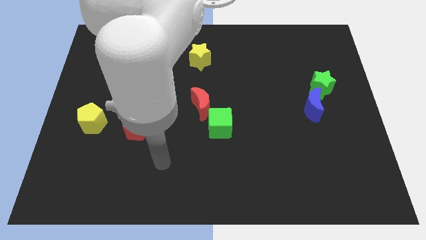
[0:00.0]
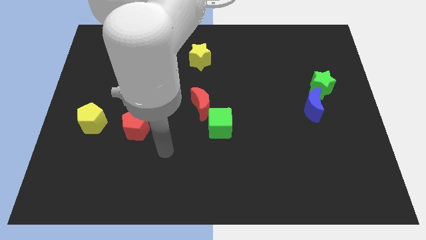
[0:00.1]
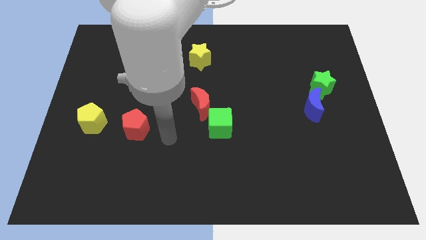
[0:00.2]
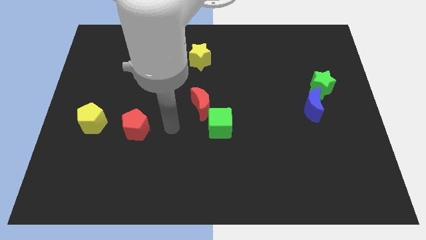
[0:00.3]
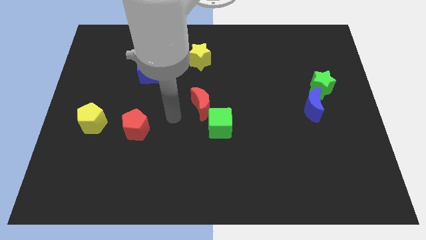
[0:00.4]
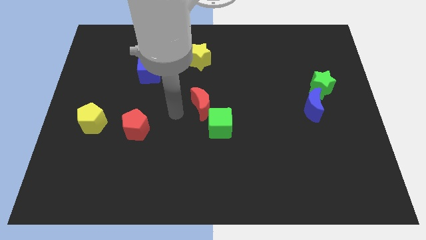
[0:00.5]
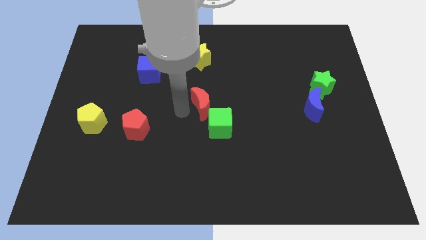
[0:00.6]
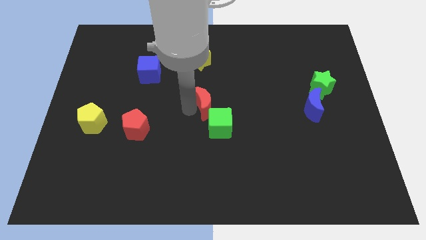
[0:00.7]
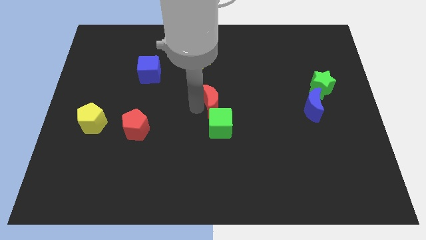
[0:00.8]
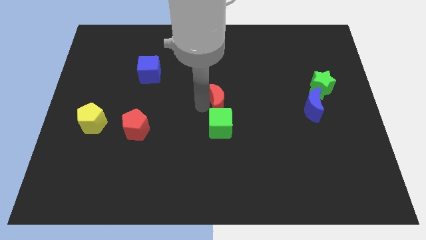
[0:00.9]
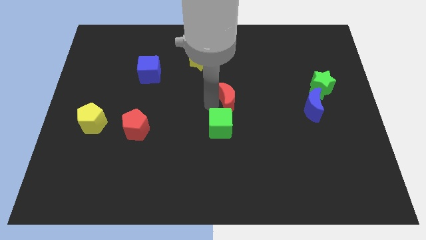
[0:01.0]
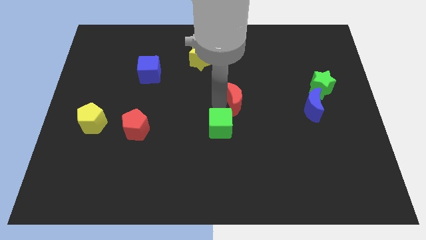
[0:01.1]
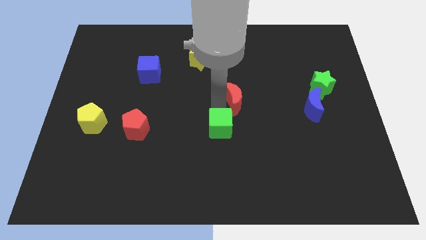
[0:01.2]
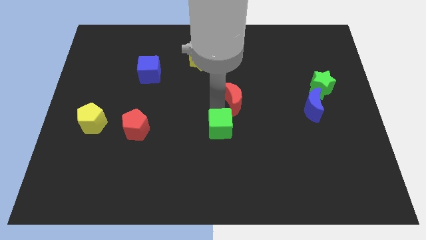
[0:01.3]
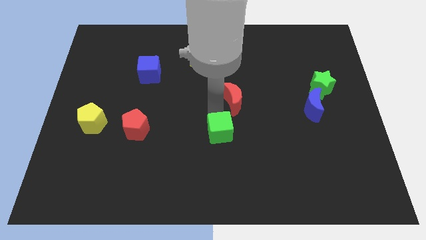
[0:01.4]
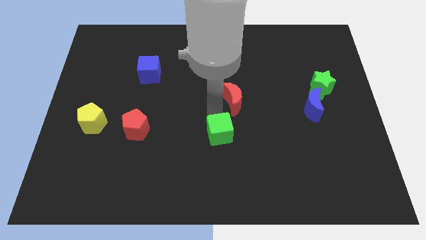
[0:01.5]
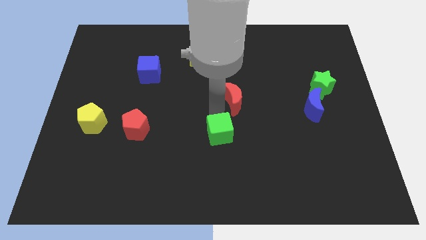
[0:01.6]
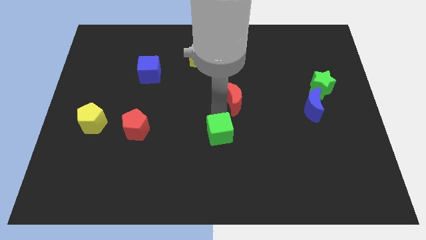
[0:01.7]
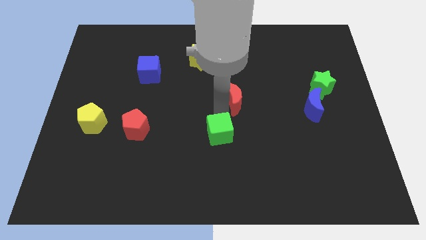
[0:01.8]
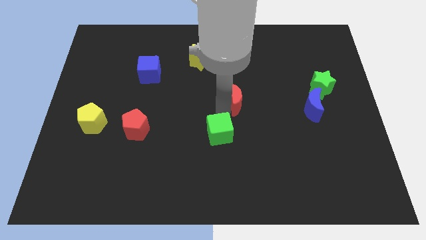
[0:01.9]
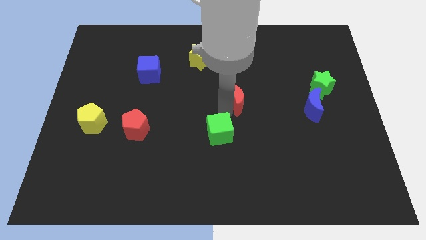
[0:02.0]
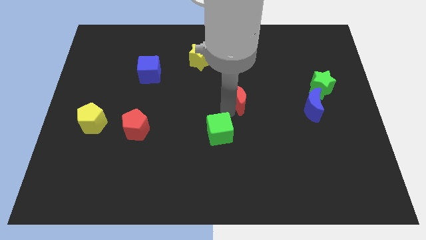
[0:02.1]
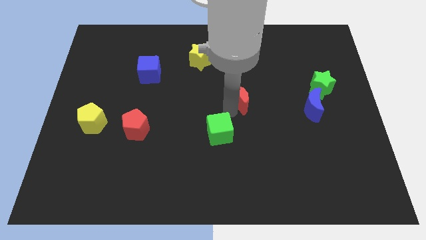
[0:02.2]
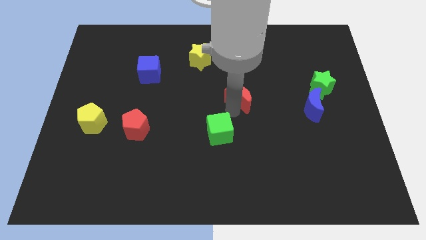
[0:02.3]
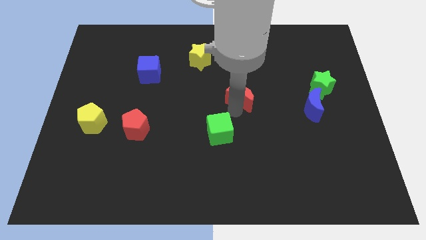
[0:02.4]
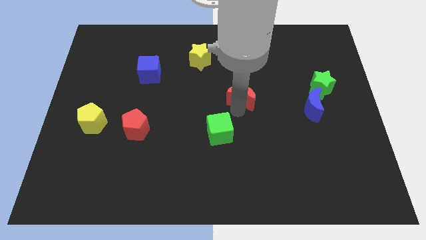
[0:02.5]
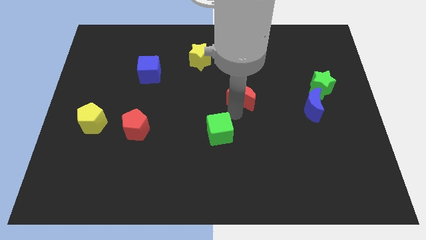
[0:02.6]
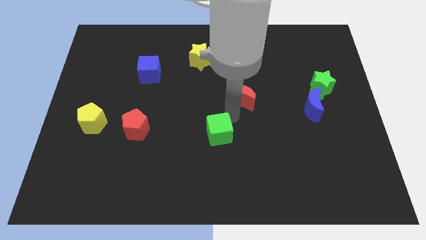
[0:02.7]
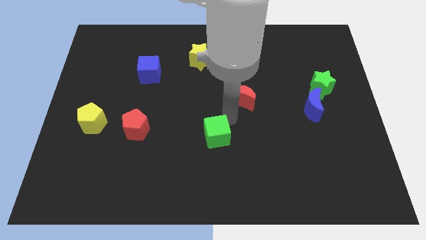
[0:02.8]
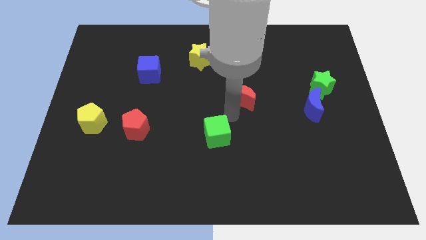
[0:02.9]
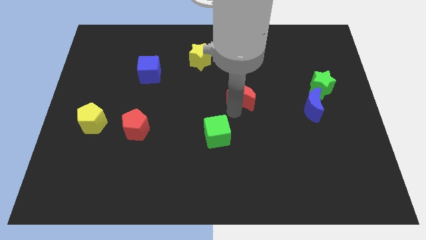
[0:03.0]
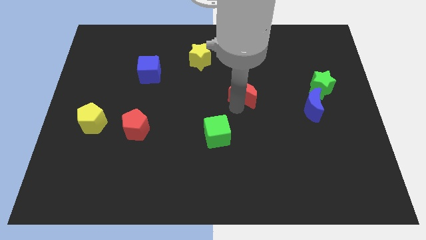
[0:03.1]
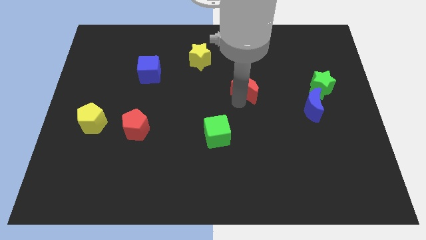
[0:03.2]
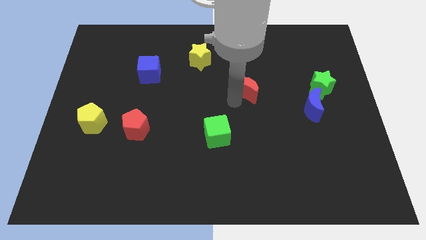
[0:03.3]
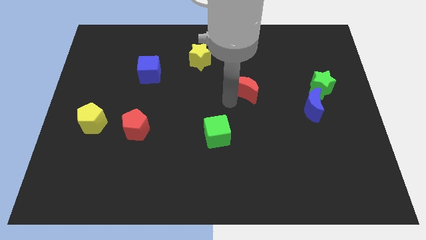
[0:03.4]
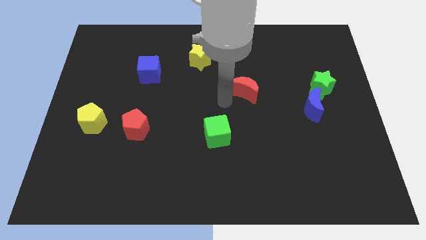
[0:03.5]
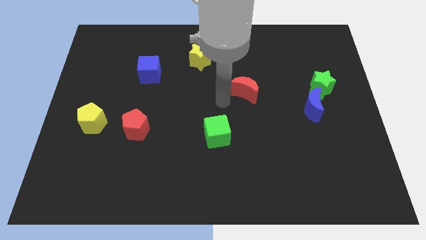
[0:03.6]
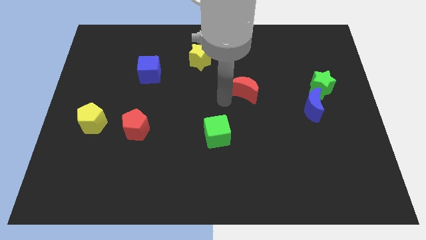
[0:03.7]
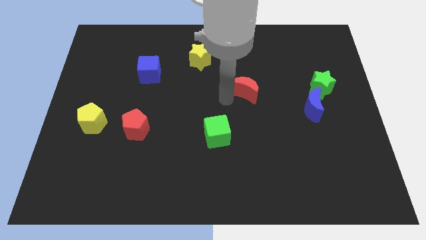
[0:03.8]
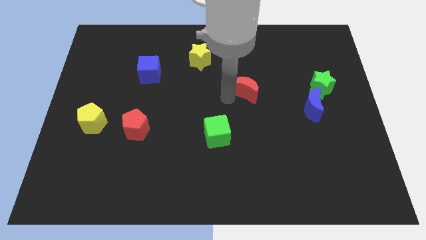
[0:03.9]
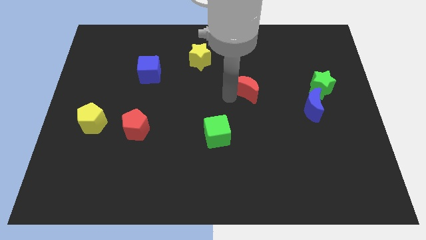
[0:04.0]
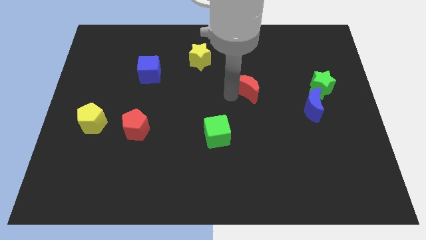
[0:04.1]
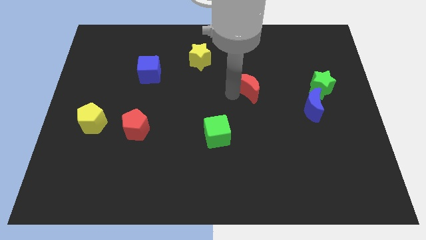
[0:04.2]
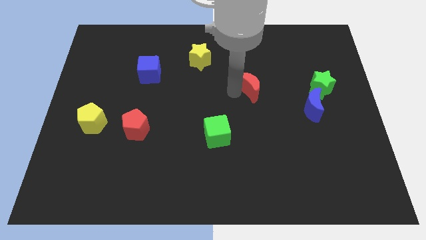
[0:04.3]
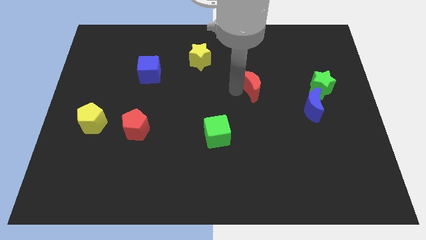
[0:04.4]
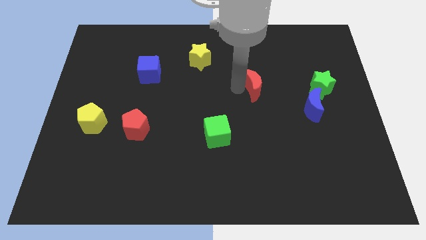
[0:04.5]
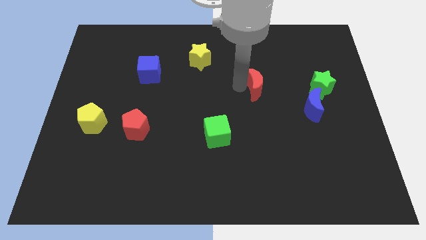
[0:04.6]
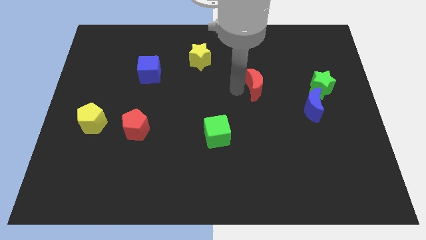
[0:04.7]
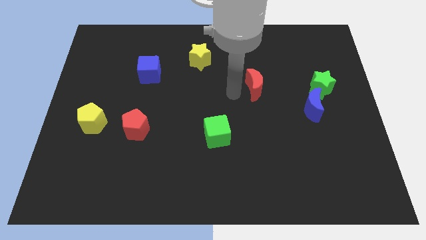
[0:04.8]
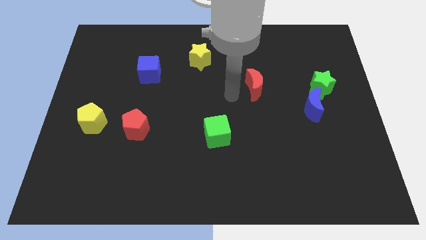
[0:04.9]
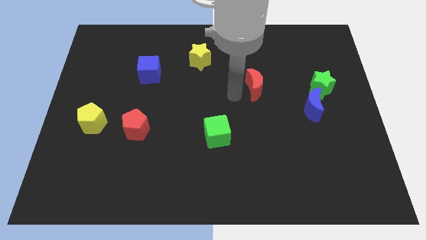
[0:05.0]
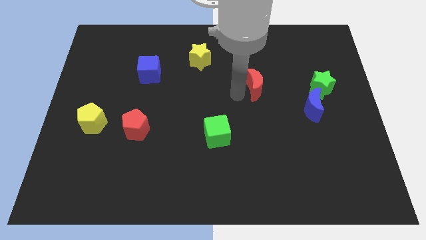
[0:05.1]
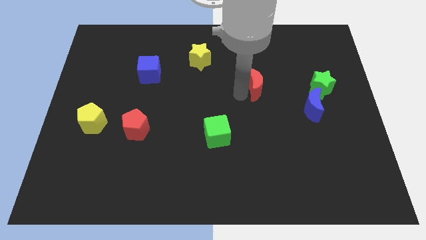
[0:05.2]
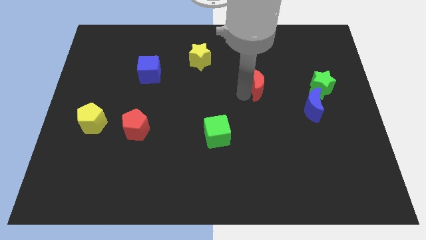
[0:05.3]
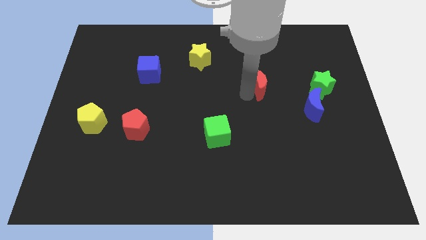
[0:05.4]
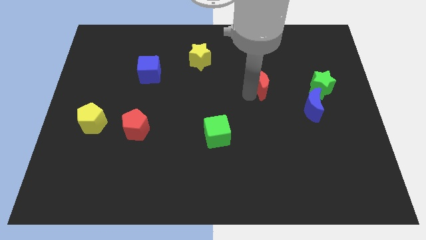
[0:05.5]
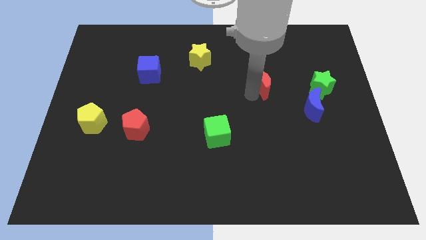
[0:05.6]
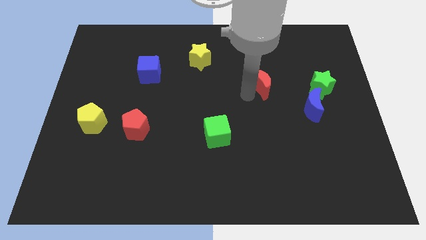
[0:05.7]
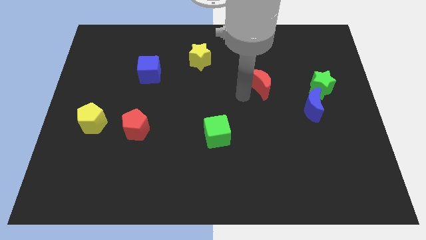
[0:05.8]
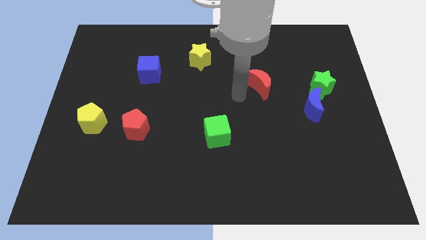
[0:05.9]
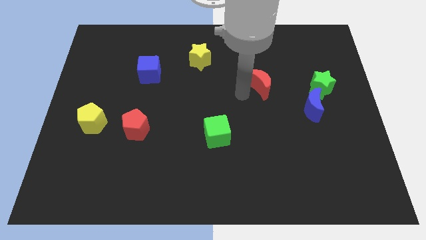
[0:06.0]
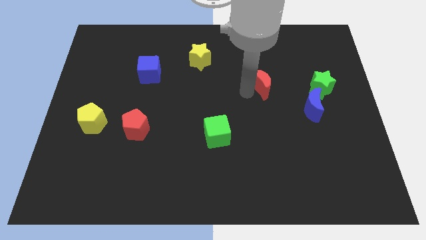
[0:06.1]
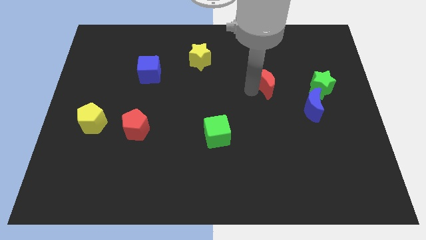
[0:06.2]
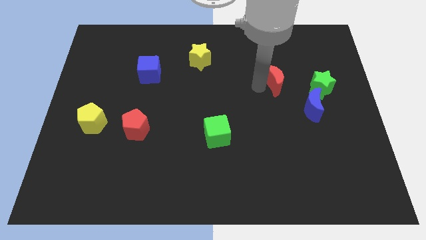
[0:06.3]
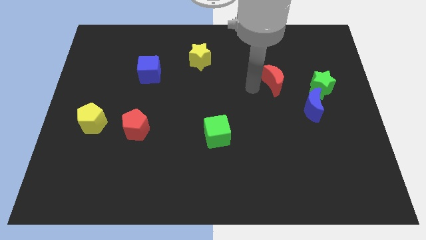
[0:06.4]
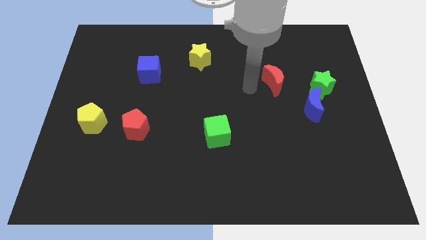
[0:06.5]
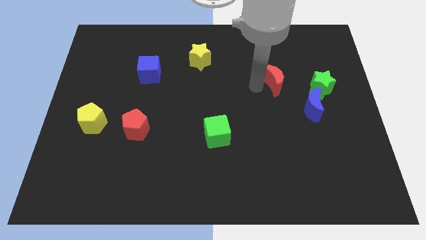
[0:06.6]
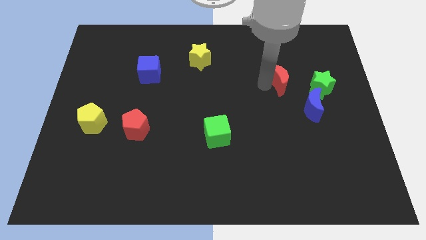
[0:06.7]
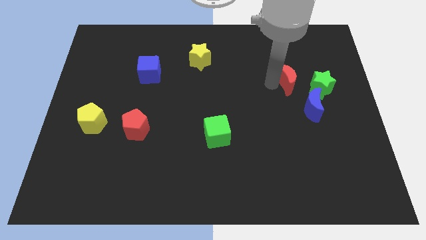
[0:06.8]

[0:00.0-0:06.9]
move the red moon to the top of the blue moon
